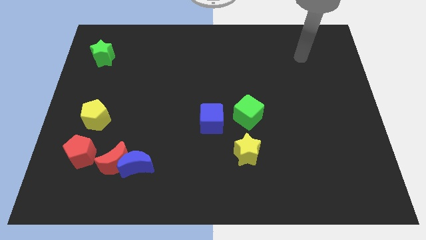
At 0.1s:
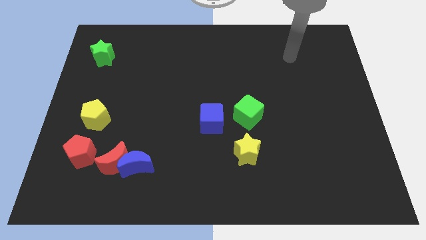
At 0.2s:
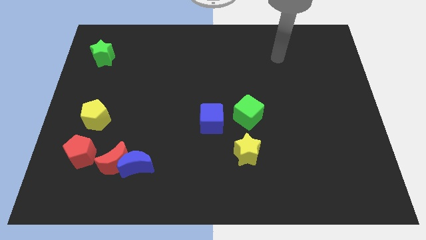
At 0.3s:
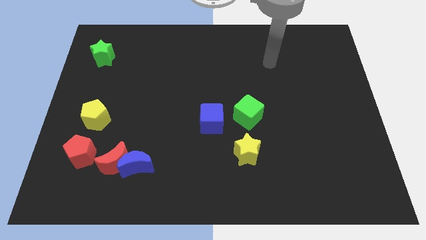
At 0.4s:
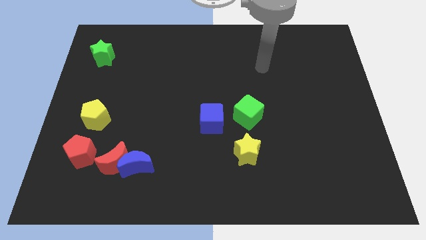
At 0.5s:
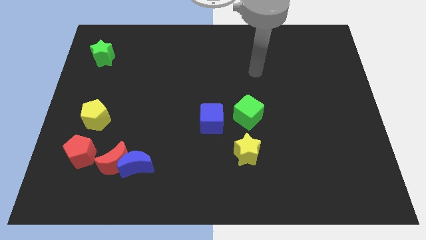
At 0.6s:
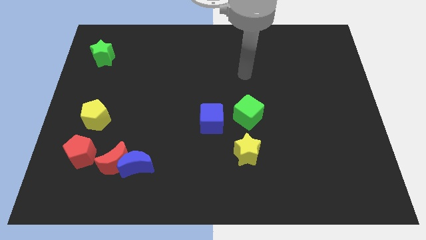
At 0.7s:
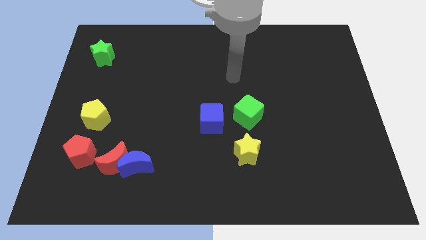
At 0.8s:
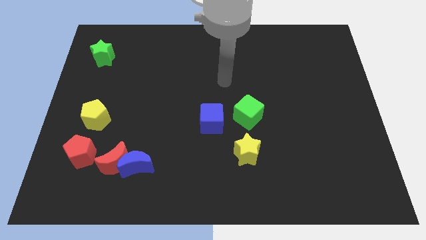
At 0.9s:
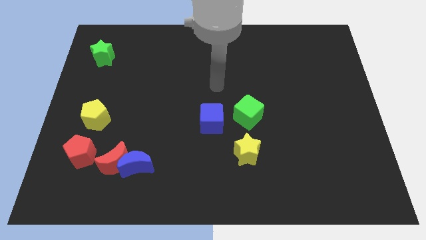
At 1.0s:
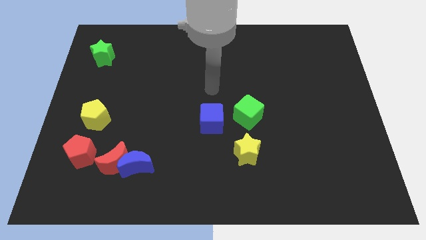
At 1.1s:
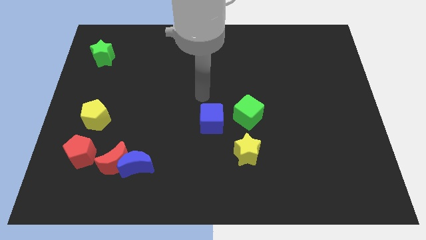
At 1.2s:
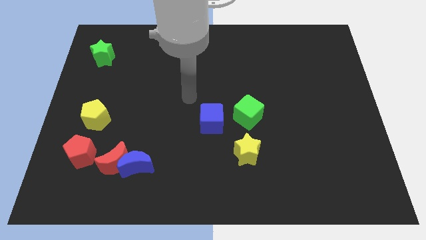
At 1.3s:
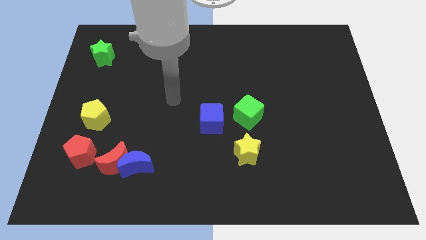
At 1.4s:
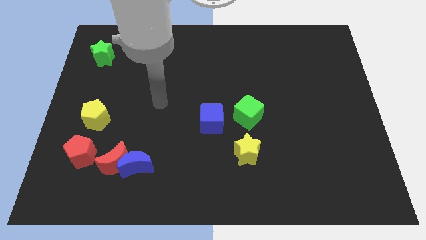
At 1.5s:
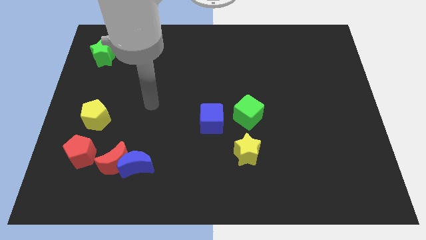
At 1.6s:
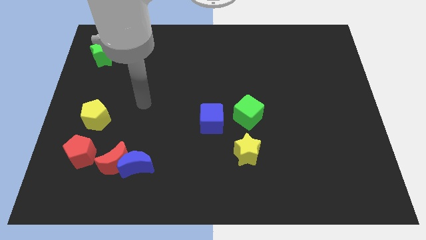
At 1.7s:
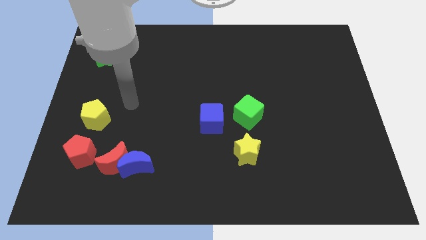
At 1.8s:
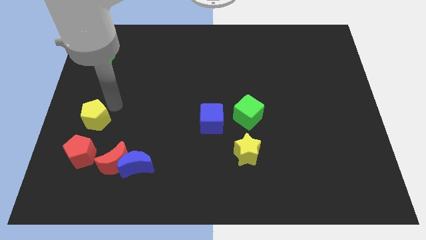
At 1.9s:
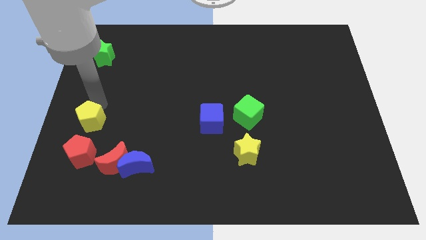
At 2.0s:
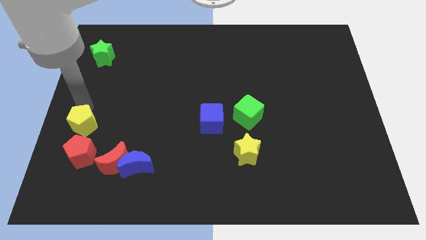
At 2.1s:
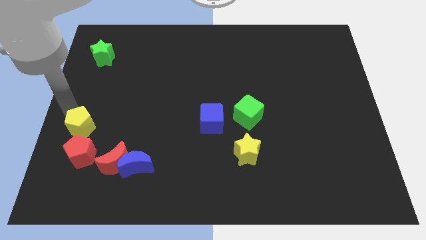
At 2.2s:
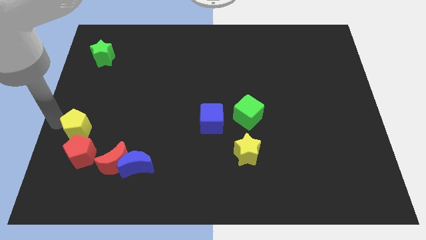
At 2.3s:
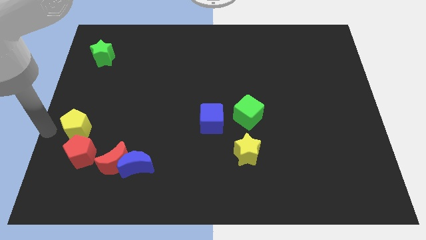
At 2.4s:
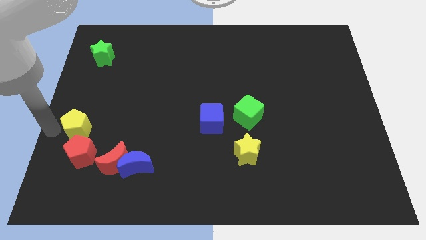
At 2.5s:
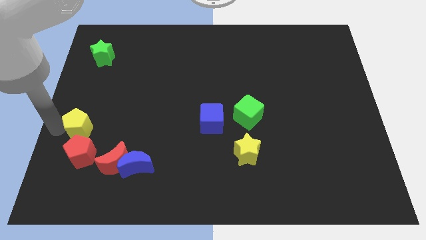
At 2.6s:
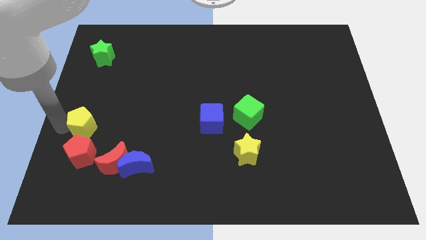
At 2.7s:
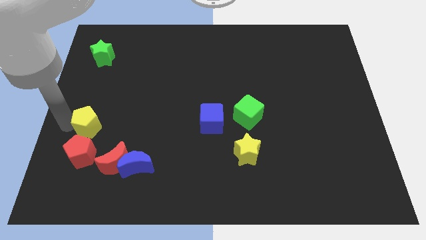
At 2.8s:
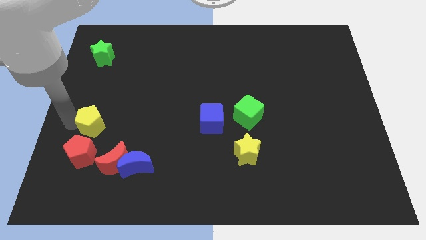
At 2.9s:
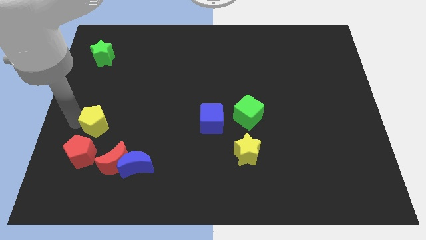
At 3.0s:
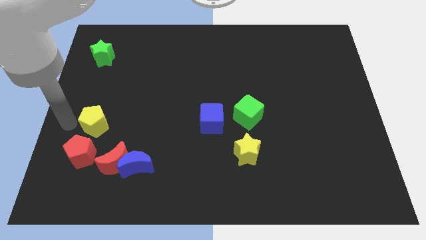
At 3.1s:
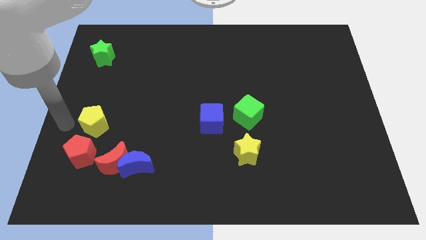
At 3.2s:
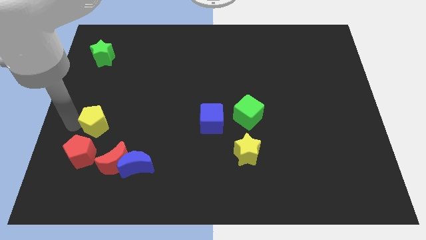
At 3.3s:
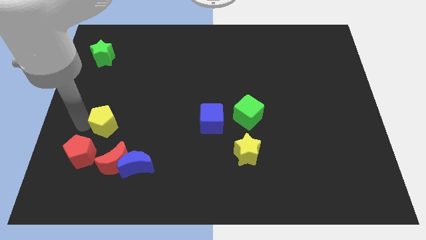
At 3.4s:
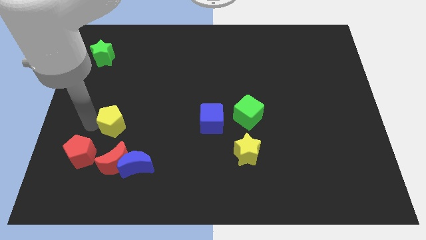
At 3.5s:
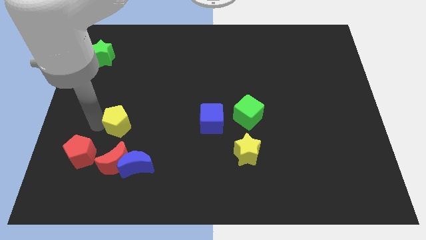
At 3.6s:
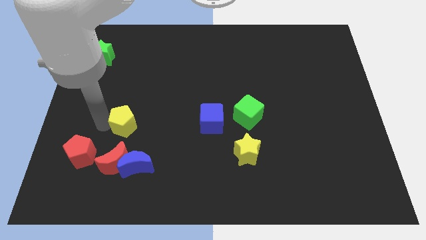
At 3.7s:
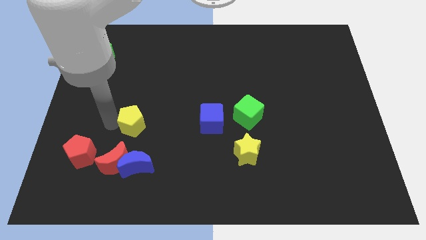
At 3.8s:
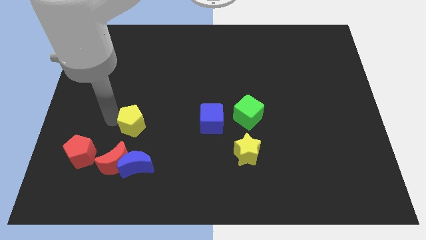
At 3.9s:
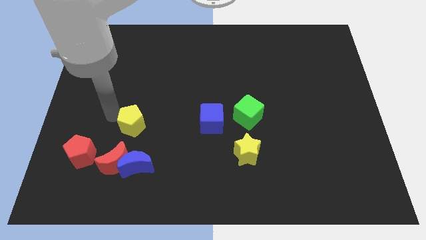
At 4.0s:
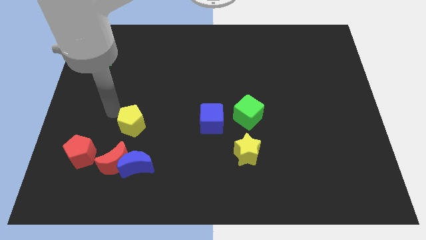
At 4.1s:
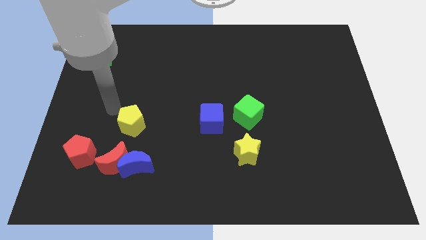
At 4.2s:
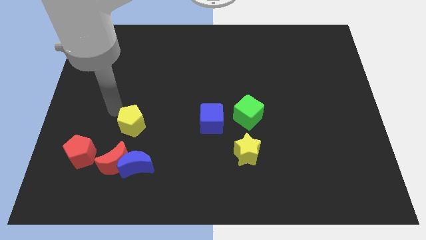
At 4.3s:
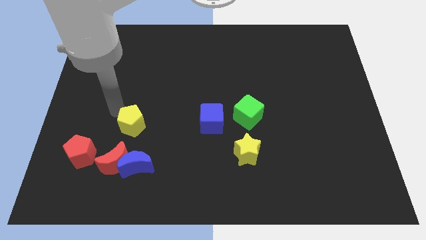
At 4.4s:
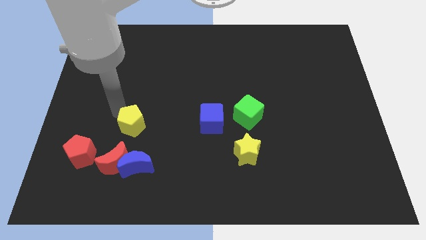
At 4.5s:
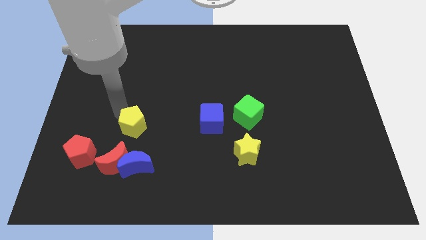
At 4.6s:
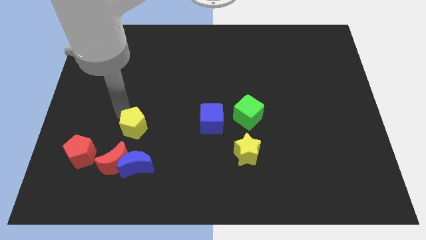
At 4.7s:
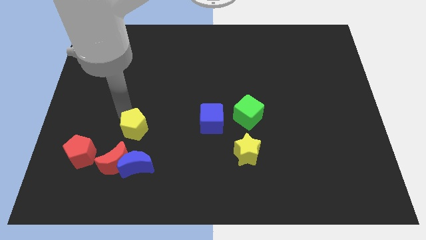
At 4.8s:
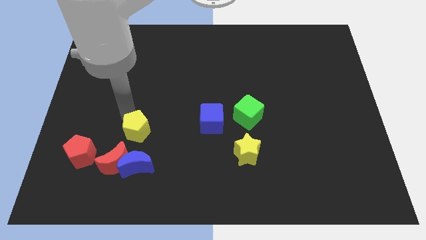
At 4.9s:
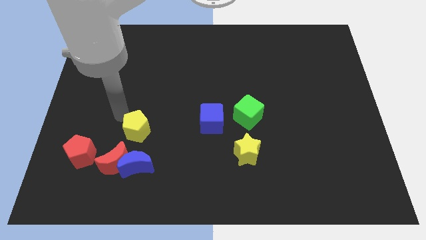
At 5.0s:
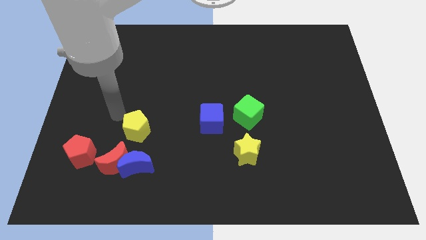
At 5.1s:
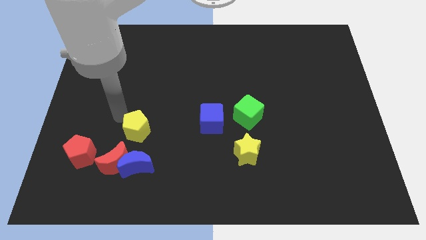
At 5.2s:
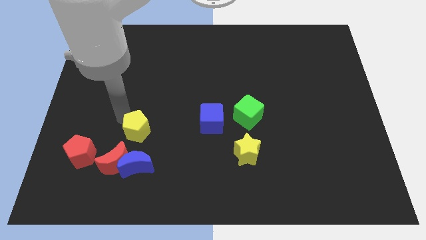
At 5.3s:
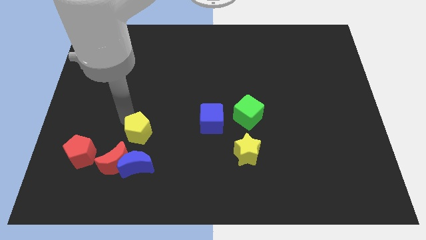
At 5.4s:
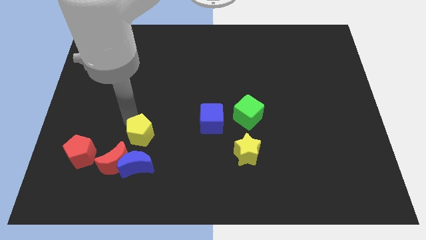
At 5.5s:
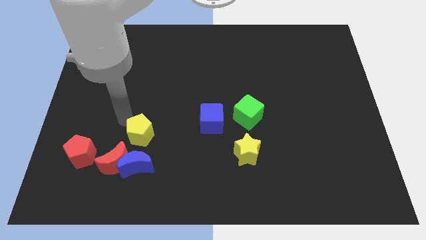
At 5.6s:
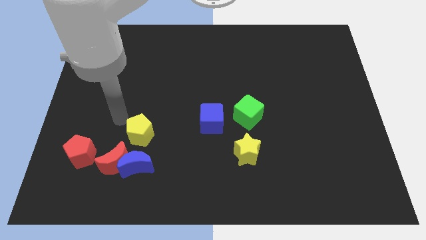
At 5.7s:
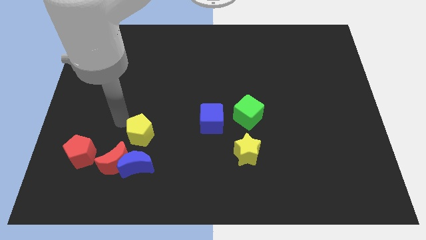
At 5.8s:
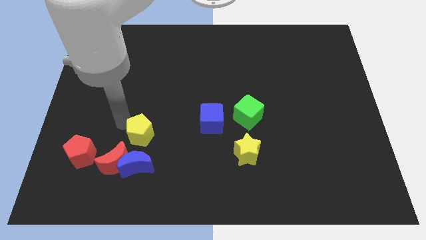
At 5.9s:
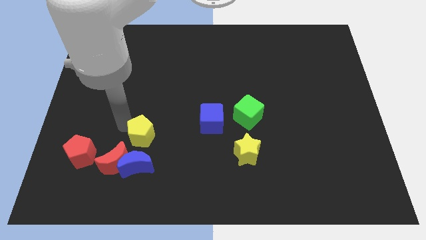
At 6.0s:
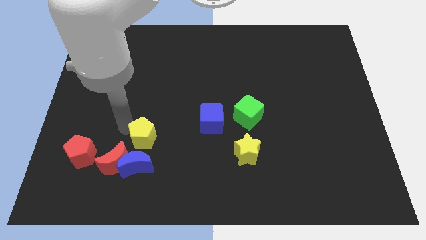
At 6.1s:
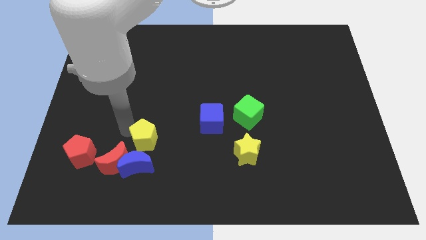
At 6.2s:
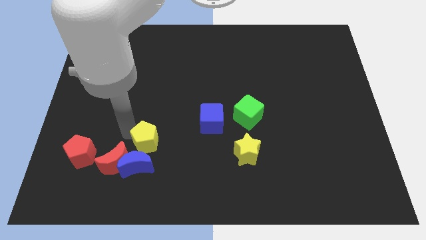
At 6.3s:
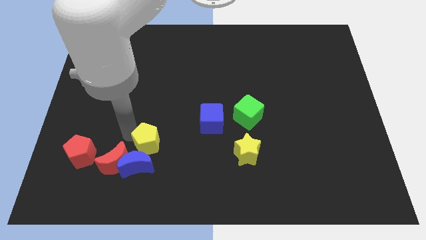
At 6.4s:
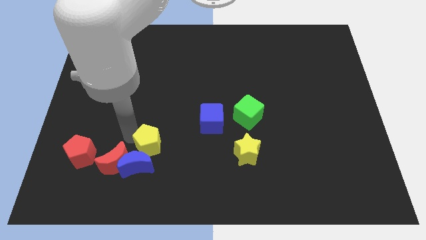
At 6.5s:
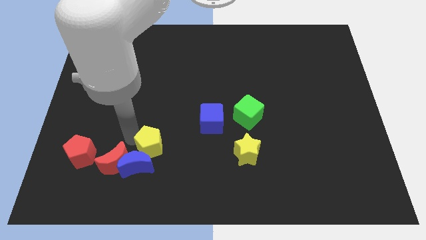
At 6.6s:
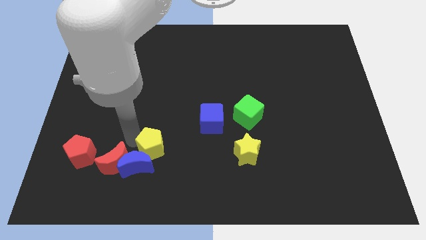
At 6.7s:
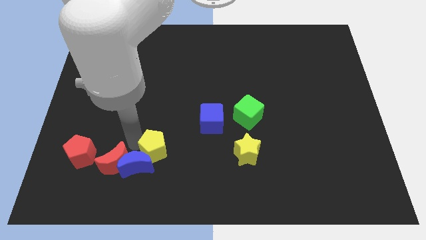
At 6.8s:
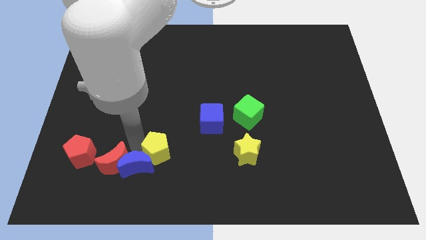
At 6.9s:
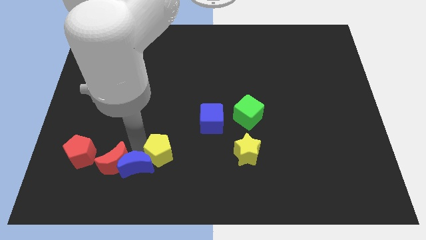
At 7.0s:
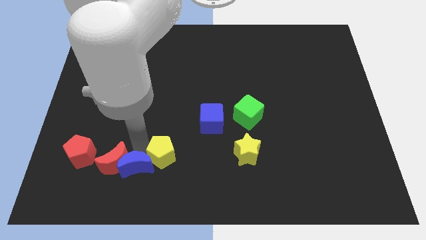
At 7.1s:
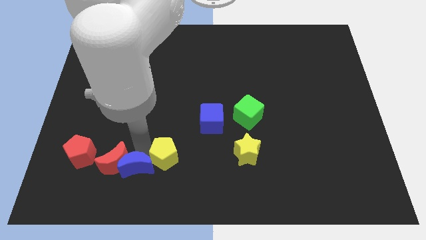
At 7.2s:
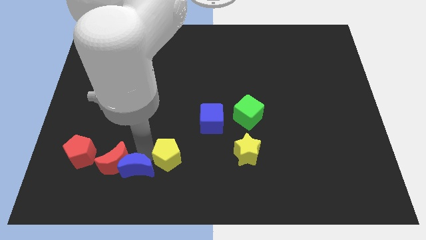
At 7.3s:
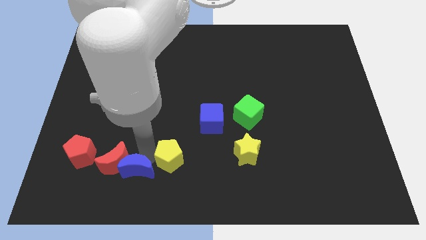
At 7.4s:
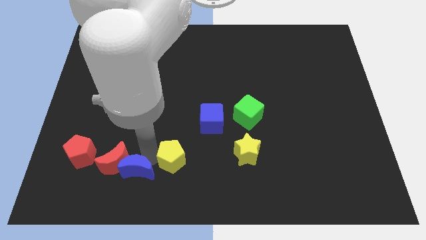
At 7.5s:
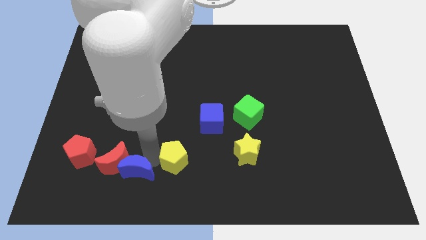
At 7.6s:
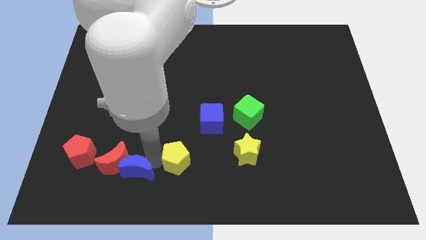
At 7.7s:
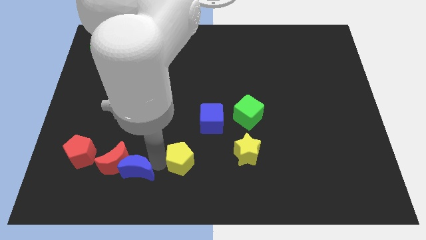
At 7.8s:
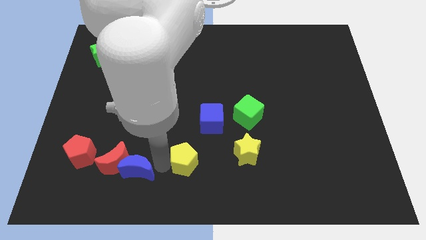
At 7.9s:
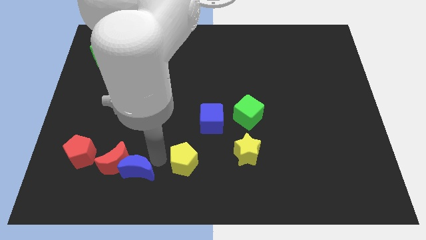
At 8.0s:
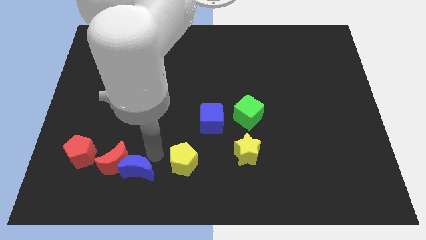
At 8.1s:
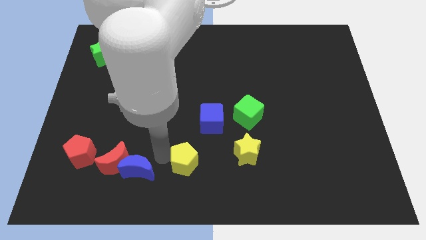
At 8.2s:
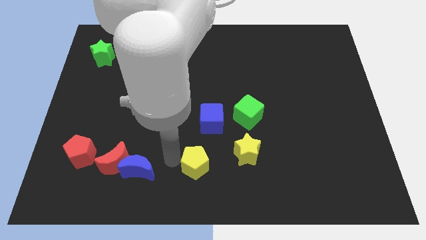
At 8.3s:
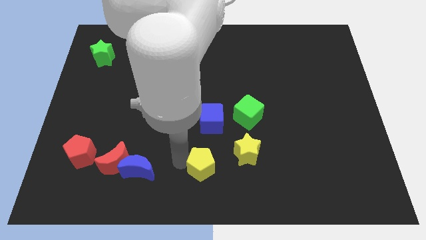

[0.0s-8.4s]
put the yellow pentagon to the bottom left side of the yellow star
